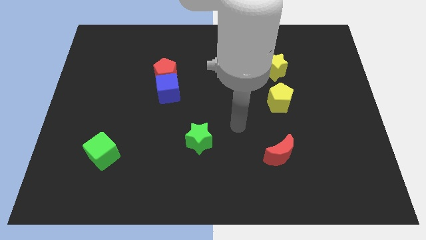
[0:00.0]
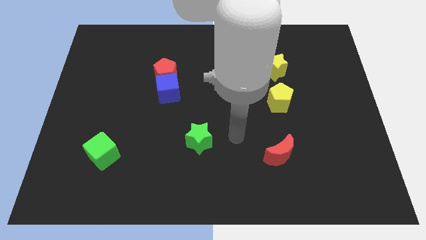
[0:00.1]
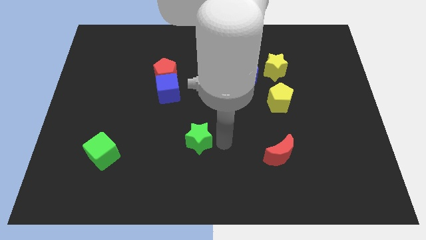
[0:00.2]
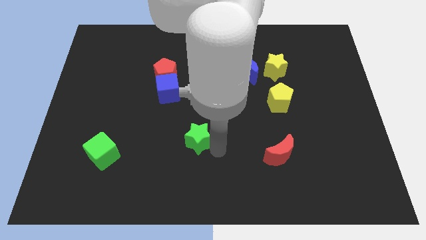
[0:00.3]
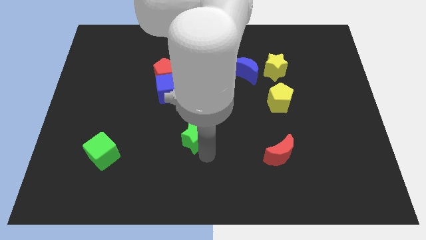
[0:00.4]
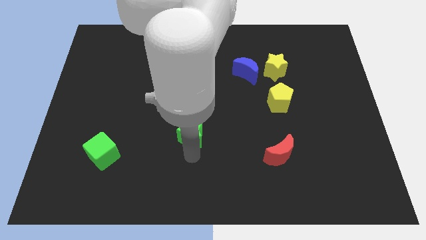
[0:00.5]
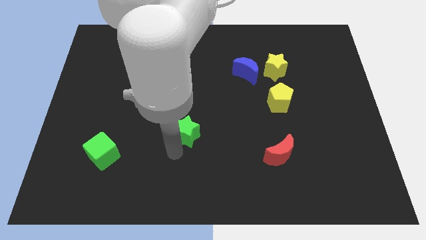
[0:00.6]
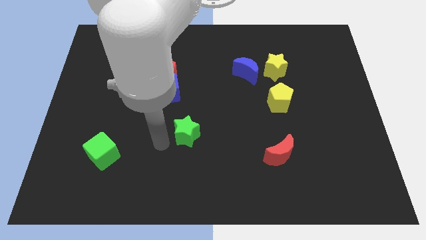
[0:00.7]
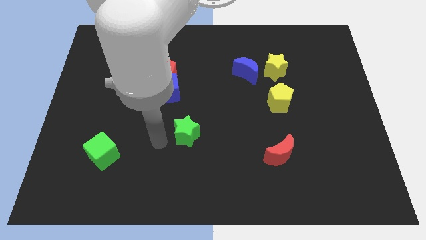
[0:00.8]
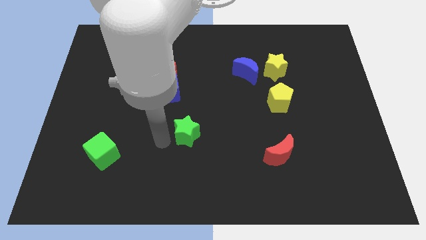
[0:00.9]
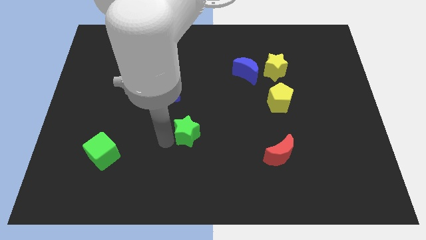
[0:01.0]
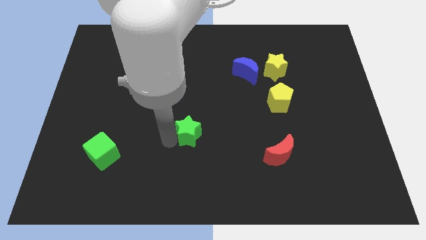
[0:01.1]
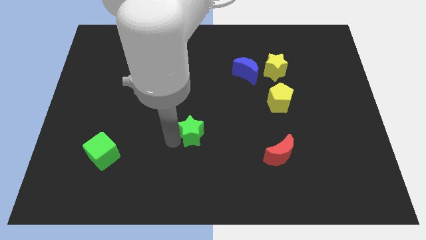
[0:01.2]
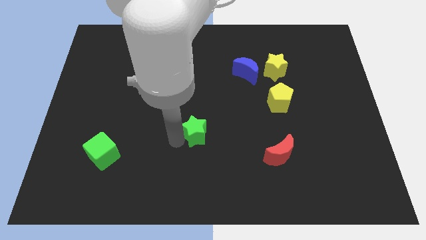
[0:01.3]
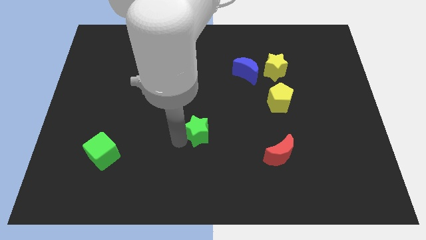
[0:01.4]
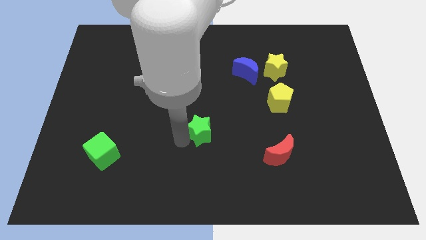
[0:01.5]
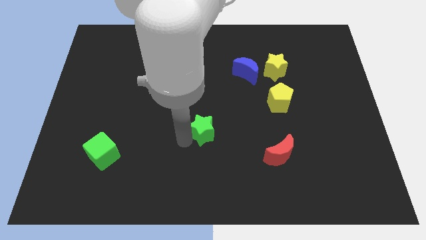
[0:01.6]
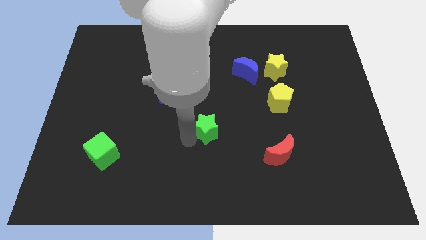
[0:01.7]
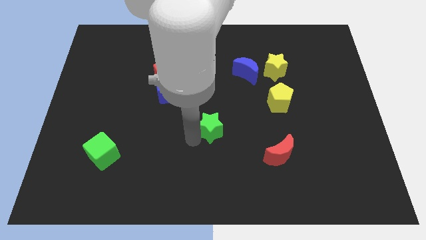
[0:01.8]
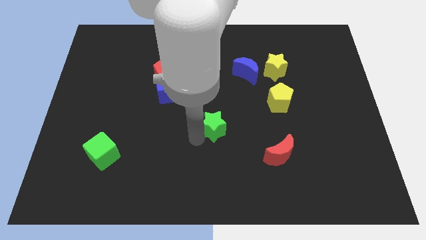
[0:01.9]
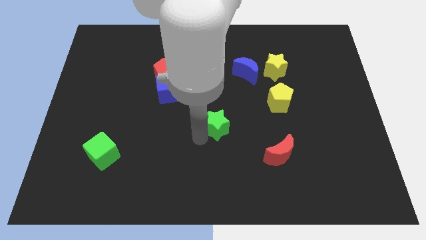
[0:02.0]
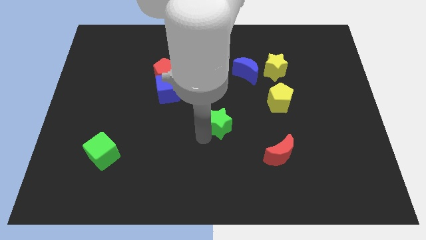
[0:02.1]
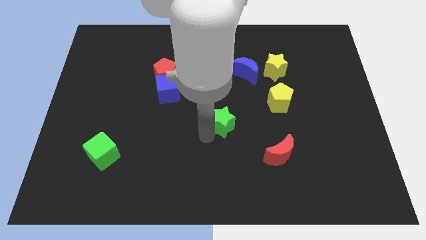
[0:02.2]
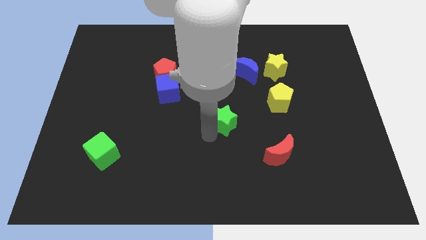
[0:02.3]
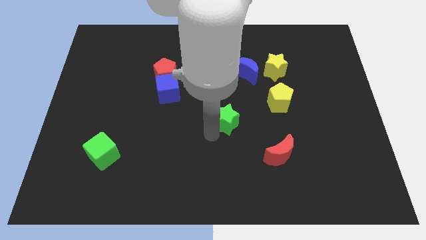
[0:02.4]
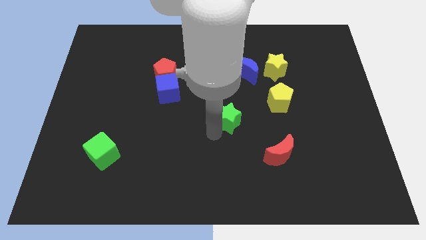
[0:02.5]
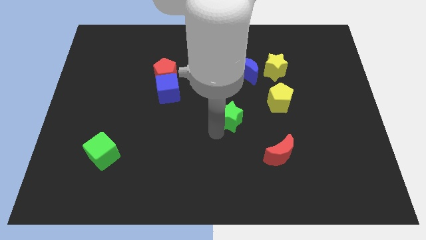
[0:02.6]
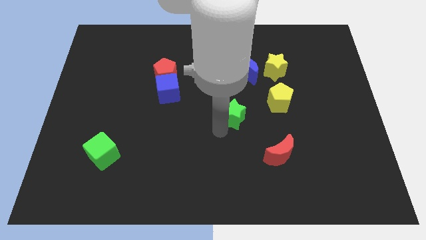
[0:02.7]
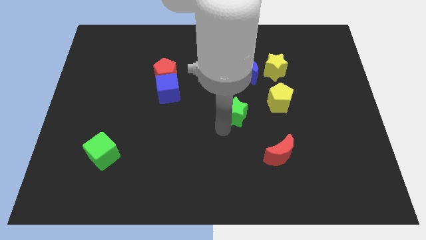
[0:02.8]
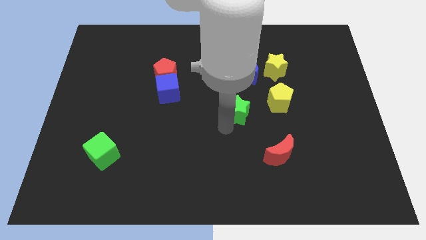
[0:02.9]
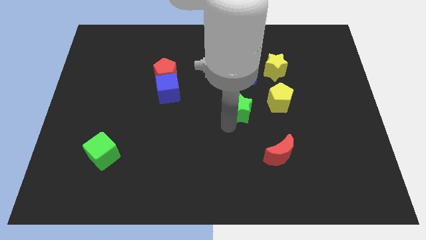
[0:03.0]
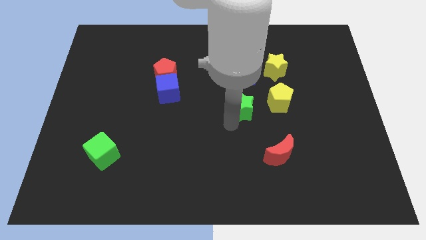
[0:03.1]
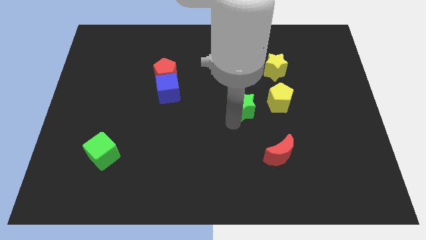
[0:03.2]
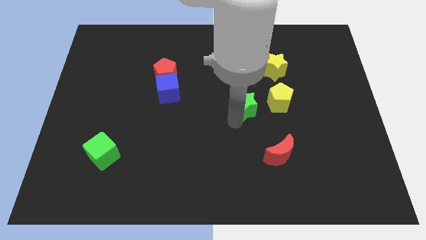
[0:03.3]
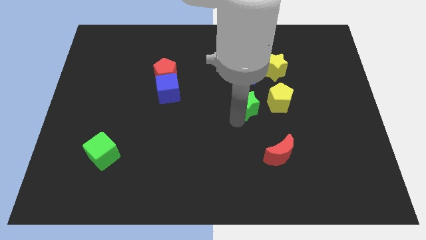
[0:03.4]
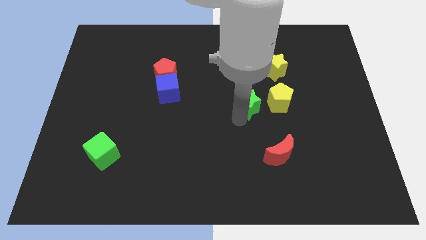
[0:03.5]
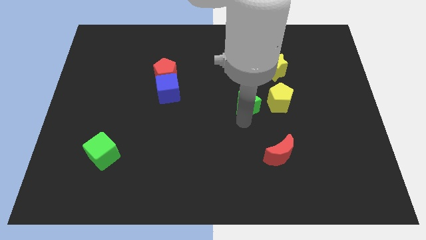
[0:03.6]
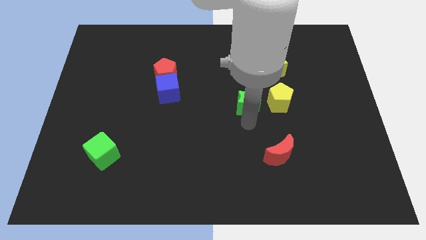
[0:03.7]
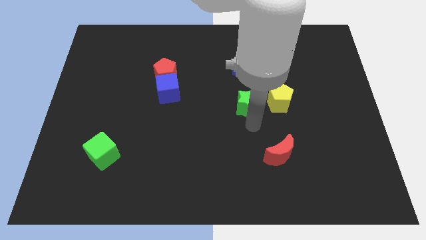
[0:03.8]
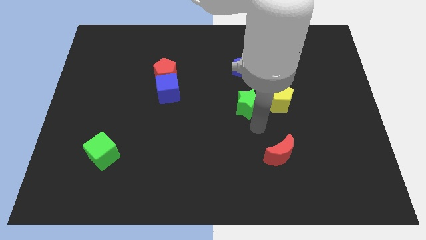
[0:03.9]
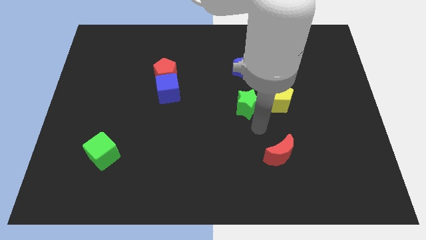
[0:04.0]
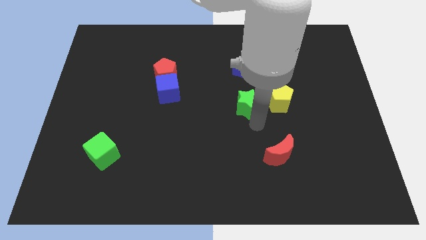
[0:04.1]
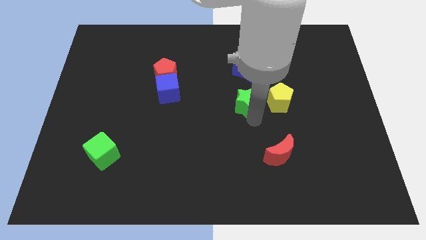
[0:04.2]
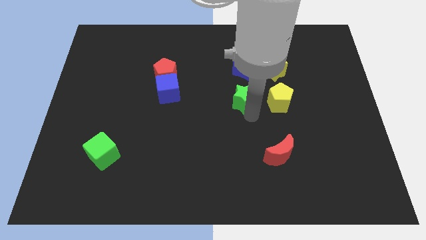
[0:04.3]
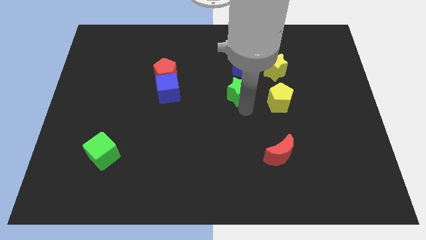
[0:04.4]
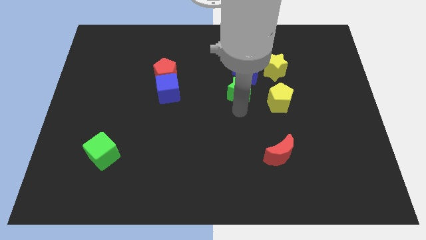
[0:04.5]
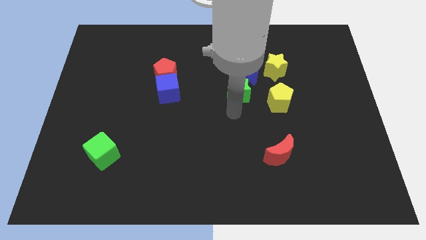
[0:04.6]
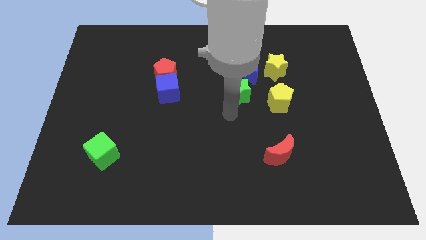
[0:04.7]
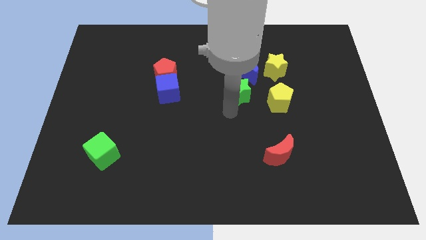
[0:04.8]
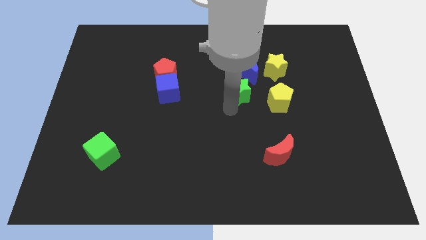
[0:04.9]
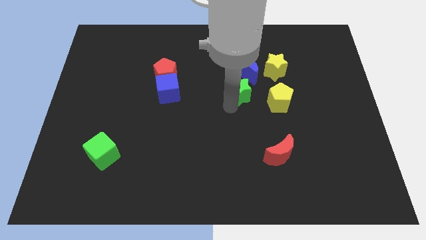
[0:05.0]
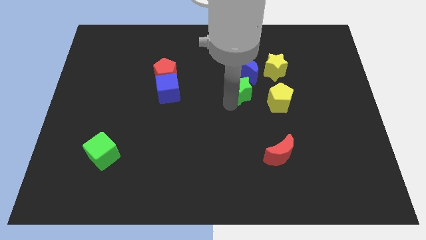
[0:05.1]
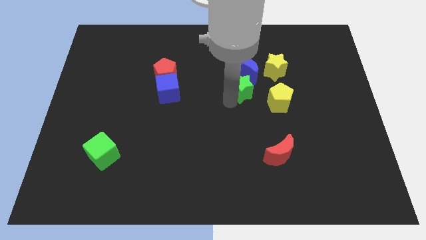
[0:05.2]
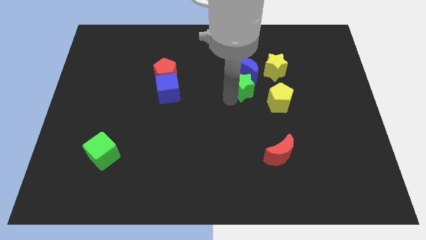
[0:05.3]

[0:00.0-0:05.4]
push the green star to the blue moon
